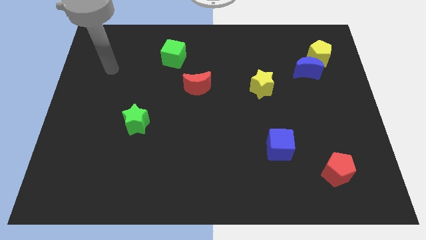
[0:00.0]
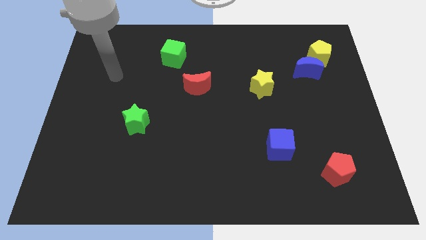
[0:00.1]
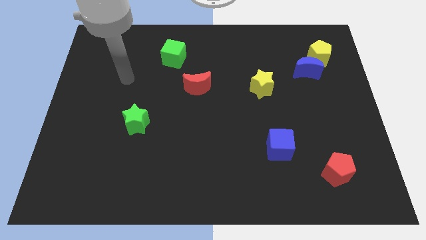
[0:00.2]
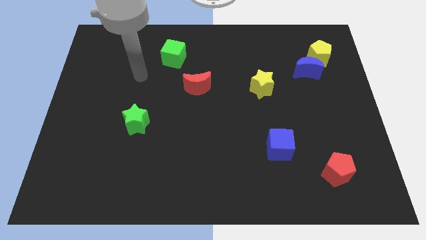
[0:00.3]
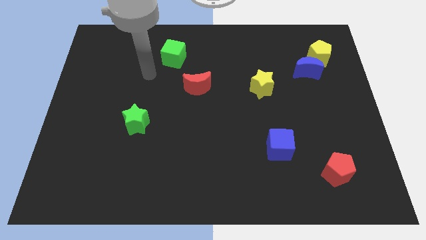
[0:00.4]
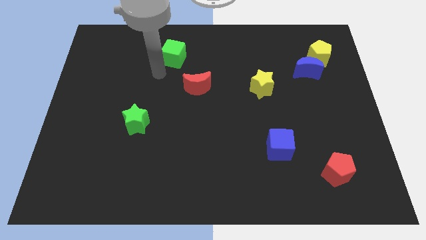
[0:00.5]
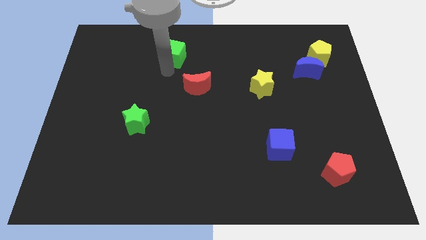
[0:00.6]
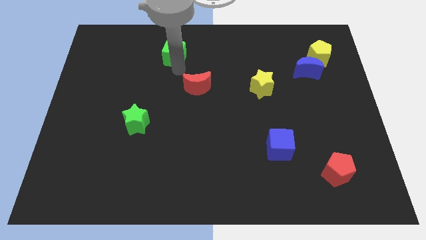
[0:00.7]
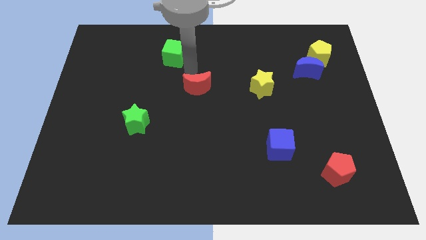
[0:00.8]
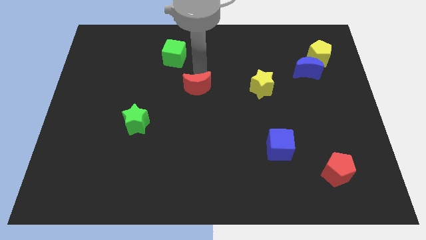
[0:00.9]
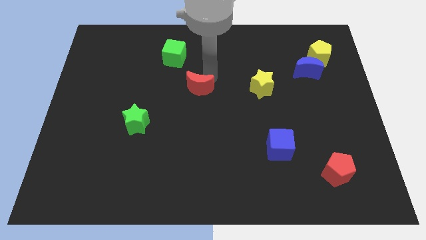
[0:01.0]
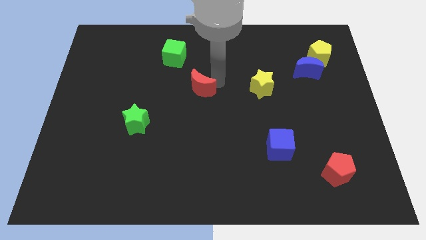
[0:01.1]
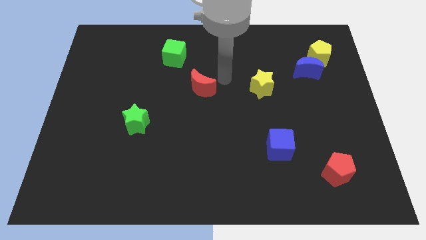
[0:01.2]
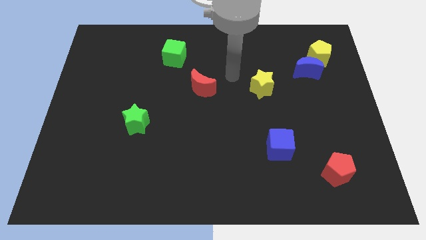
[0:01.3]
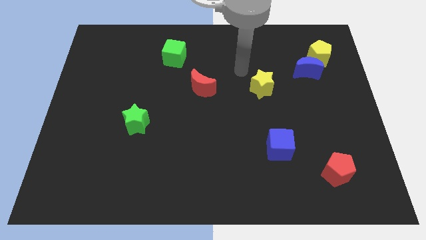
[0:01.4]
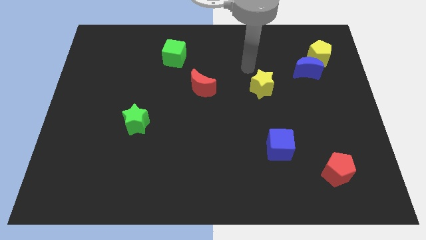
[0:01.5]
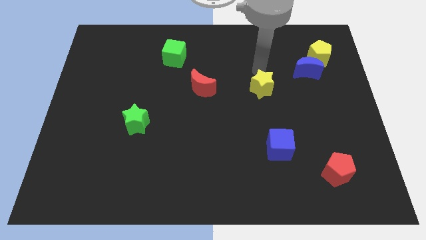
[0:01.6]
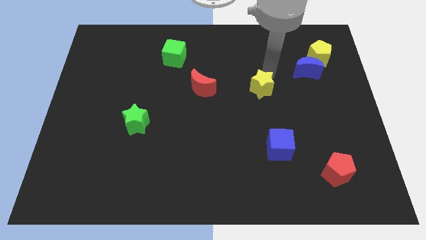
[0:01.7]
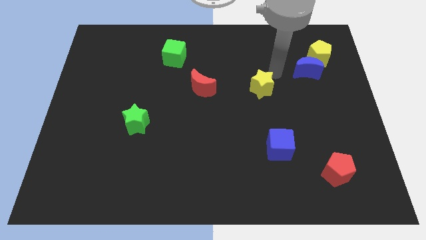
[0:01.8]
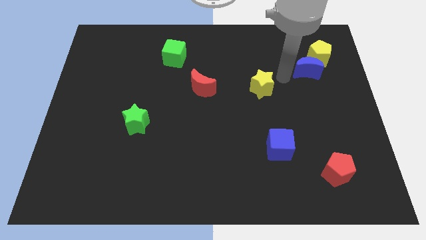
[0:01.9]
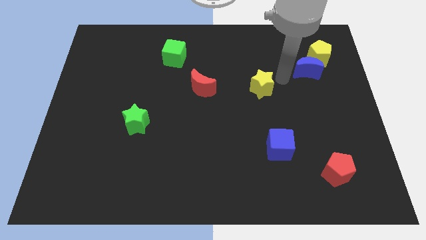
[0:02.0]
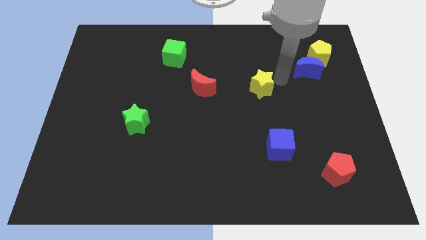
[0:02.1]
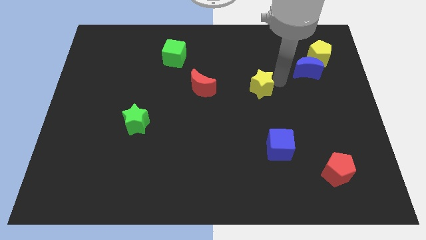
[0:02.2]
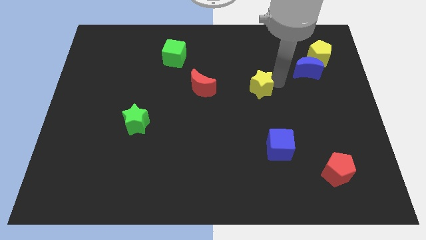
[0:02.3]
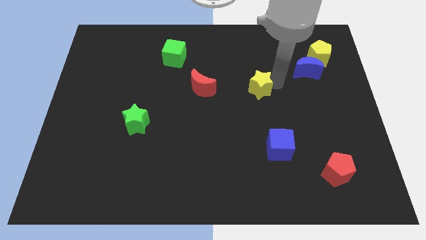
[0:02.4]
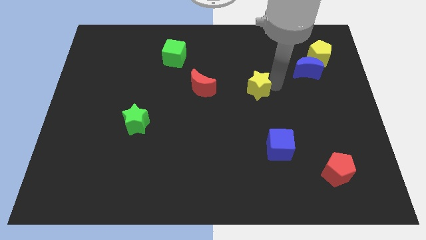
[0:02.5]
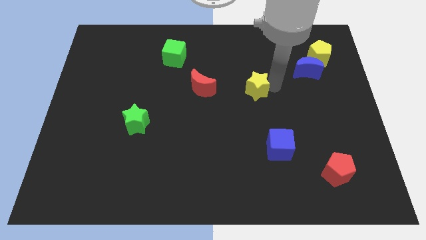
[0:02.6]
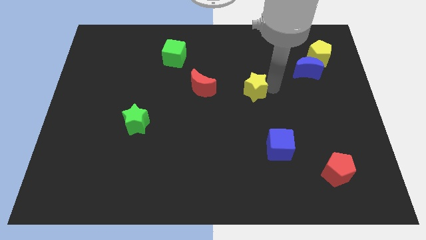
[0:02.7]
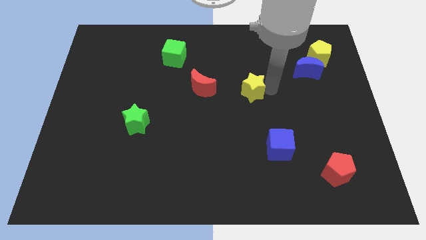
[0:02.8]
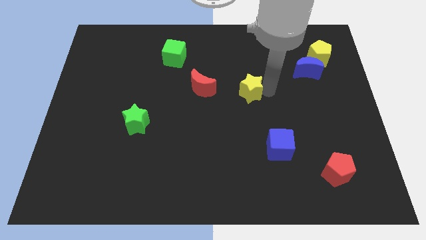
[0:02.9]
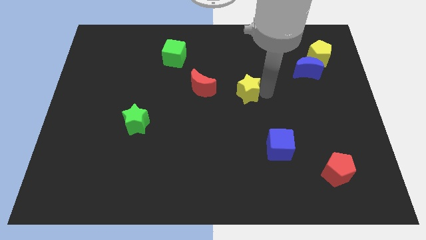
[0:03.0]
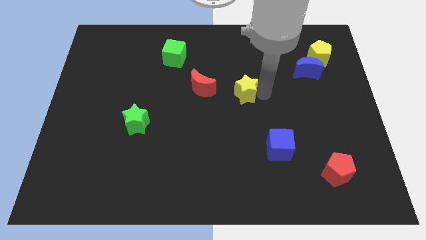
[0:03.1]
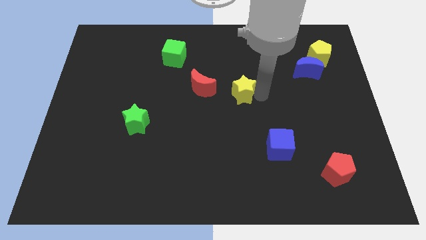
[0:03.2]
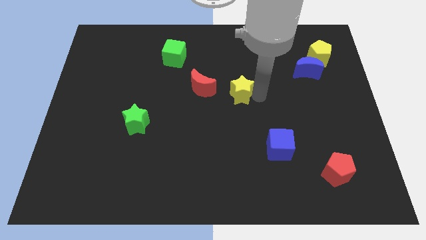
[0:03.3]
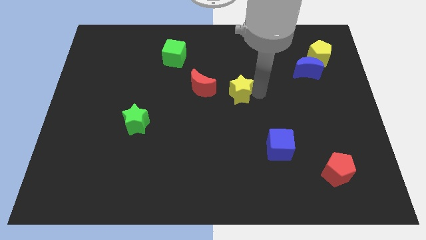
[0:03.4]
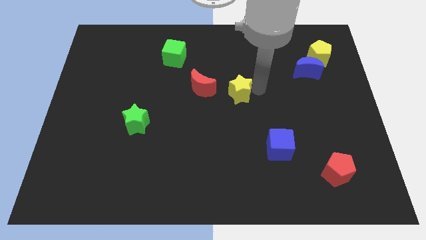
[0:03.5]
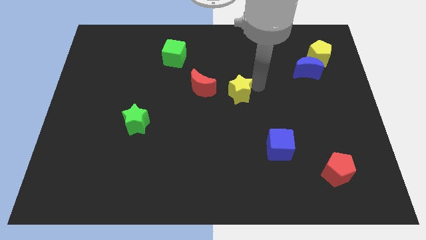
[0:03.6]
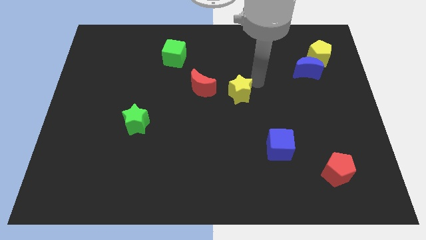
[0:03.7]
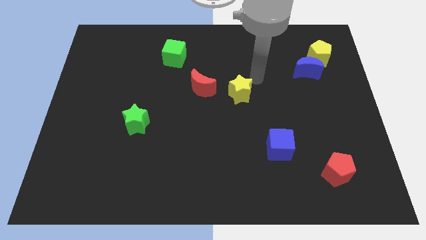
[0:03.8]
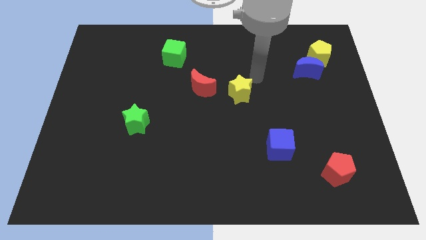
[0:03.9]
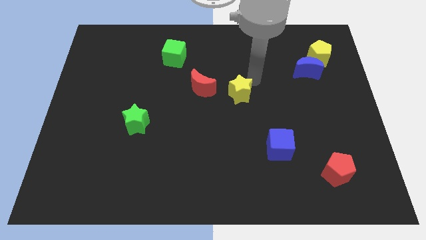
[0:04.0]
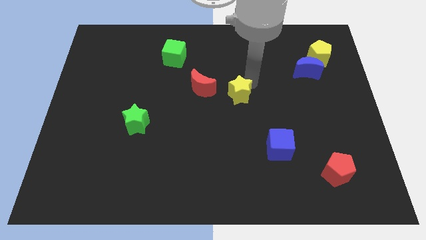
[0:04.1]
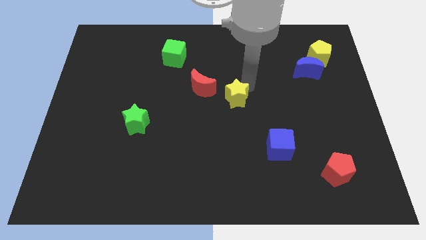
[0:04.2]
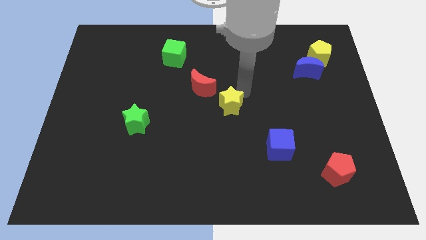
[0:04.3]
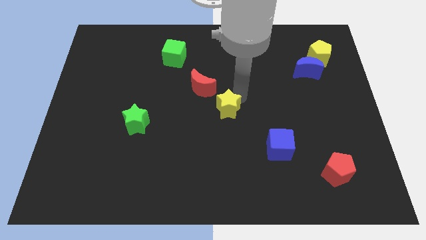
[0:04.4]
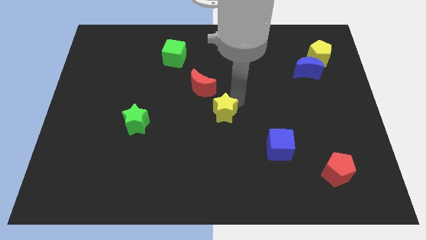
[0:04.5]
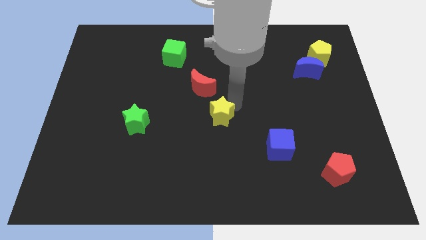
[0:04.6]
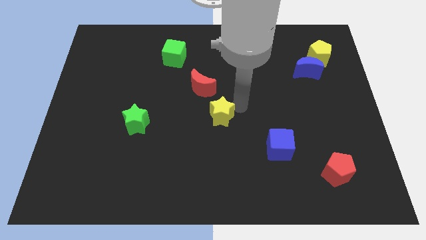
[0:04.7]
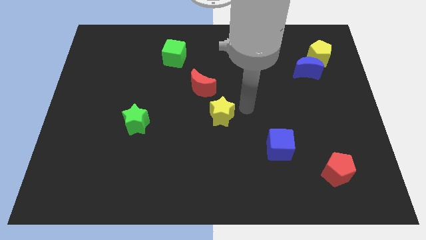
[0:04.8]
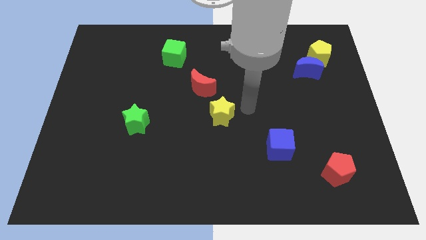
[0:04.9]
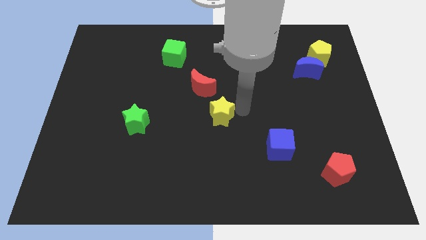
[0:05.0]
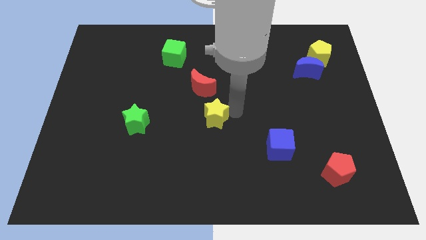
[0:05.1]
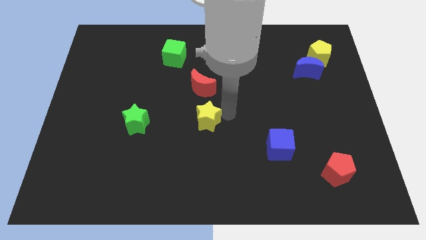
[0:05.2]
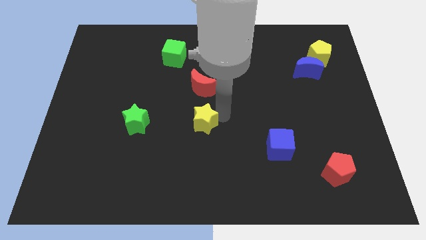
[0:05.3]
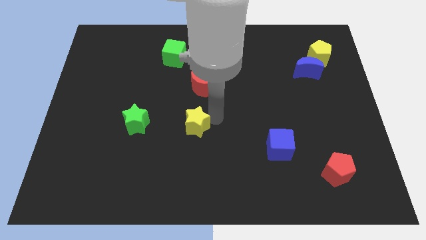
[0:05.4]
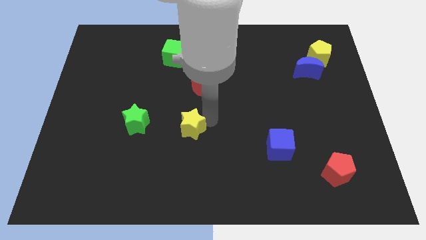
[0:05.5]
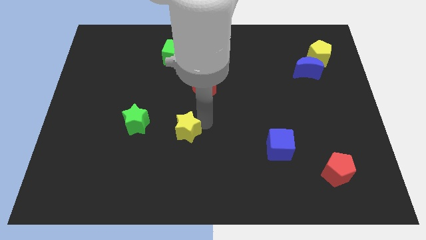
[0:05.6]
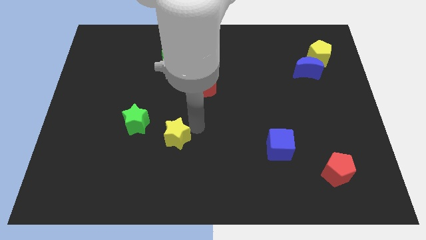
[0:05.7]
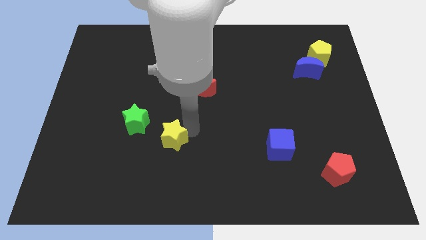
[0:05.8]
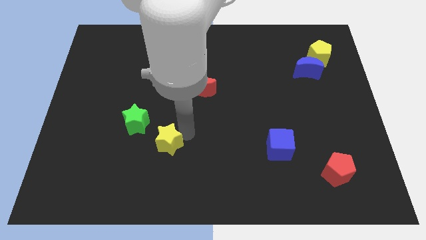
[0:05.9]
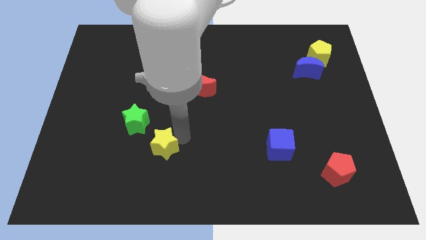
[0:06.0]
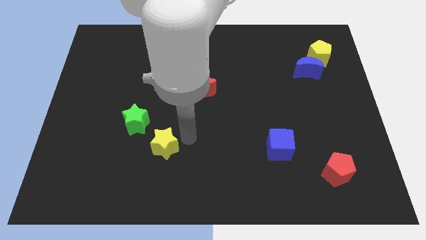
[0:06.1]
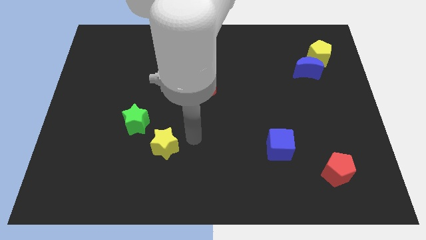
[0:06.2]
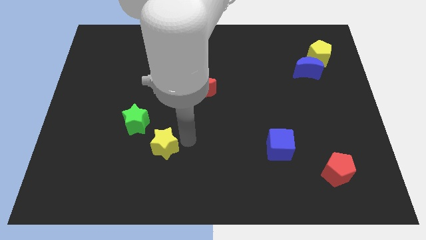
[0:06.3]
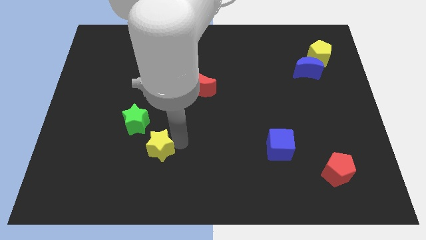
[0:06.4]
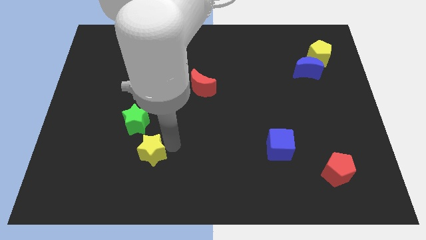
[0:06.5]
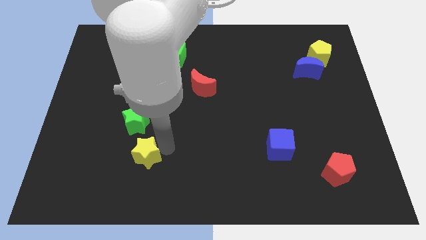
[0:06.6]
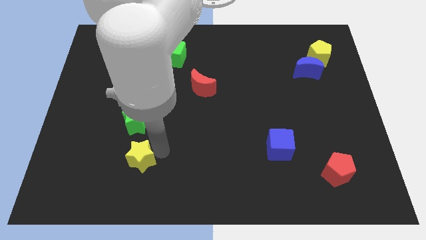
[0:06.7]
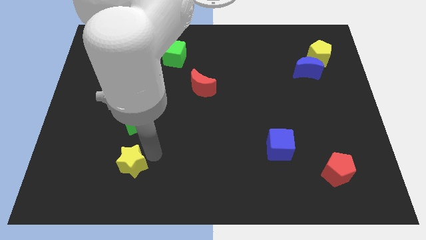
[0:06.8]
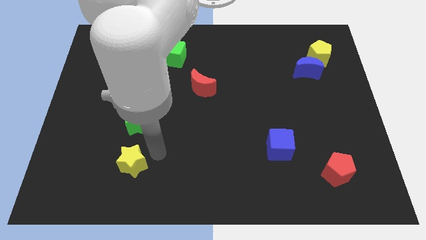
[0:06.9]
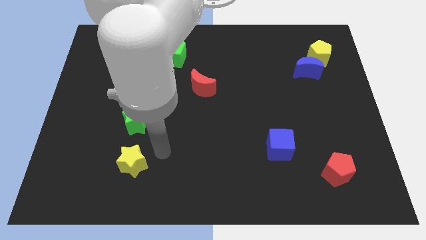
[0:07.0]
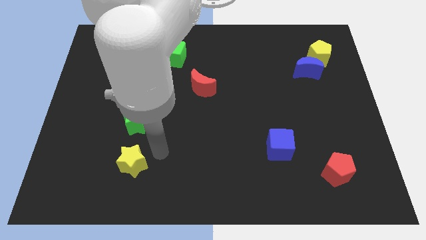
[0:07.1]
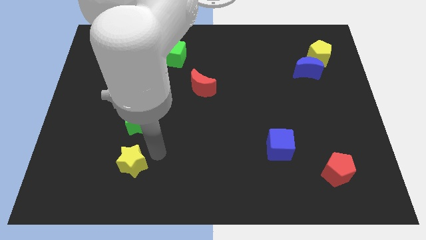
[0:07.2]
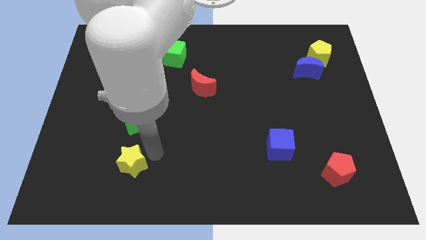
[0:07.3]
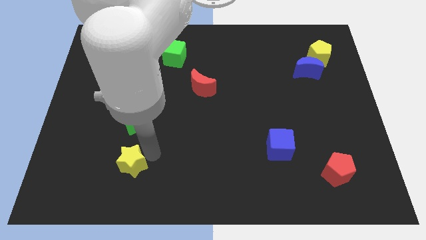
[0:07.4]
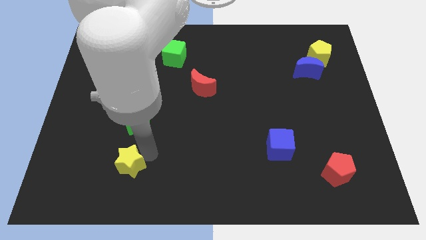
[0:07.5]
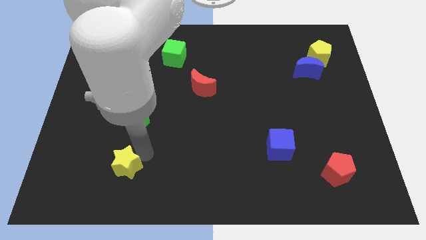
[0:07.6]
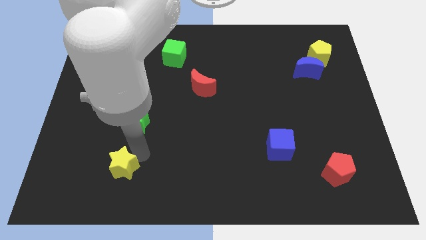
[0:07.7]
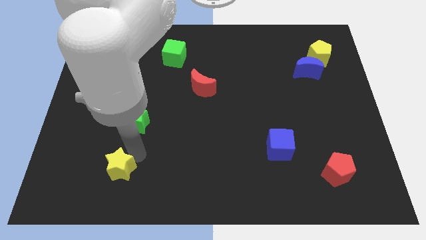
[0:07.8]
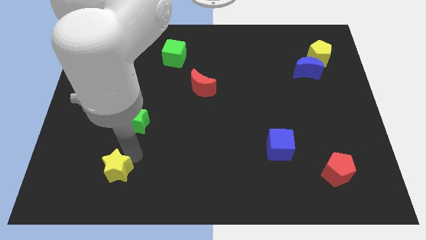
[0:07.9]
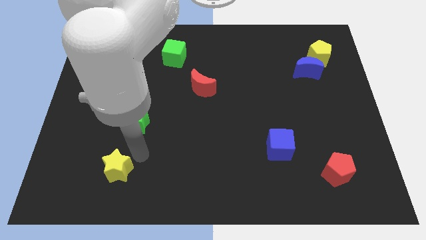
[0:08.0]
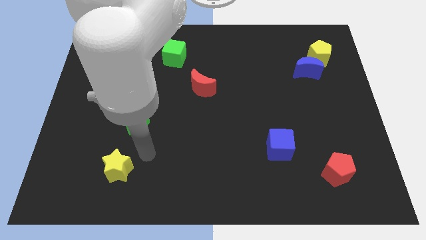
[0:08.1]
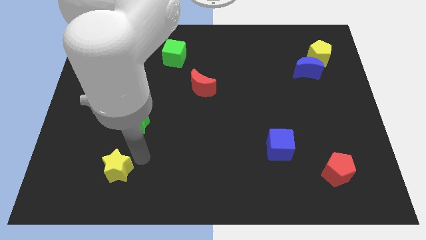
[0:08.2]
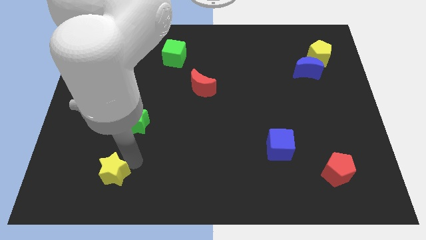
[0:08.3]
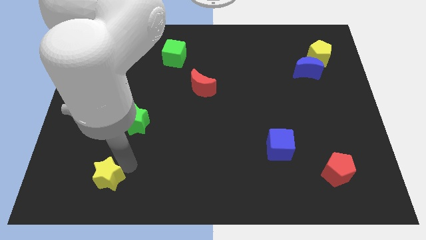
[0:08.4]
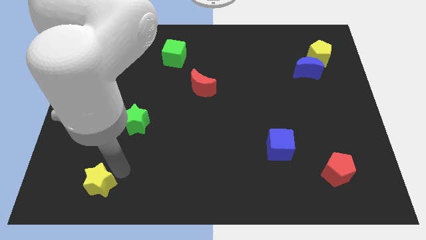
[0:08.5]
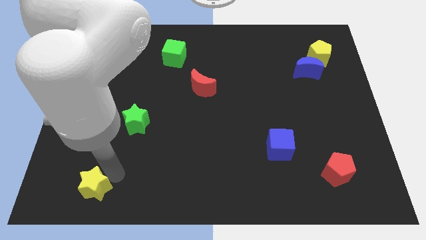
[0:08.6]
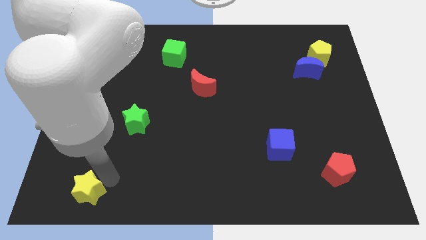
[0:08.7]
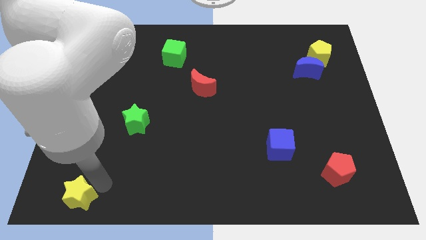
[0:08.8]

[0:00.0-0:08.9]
slide the yellow star to the lower left corner
